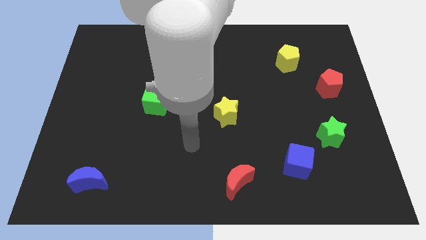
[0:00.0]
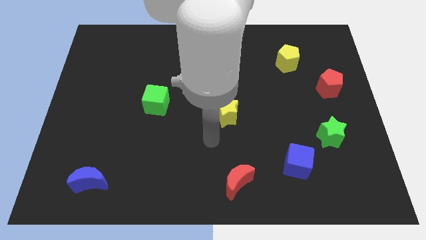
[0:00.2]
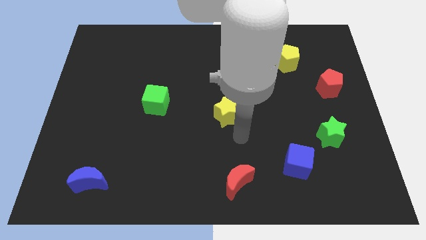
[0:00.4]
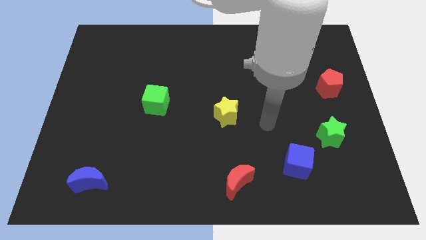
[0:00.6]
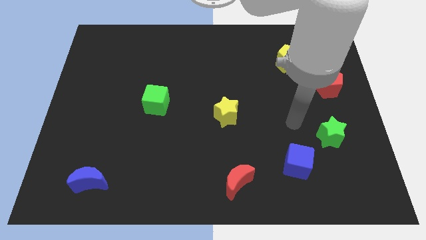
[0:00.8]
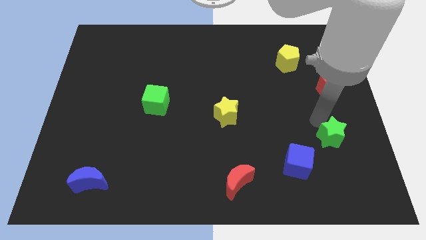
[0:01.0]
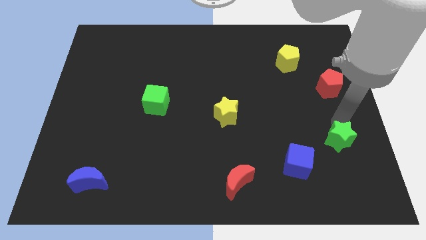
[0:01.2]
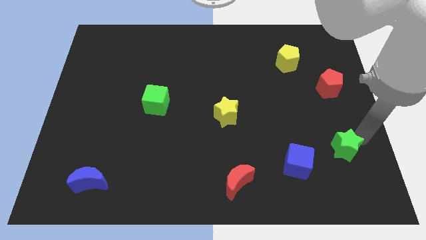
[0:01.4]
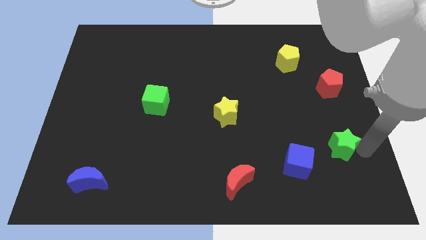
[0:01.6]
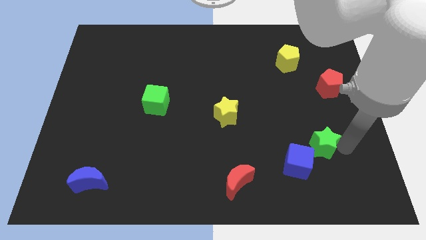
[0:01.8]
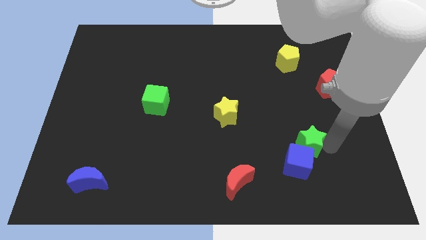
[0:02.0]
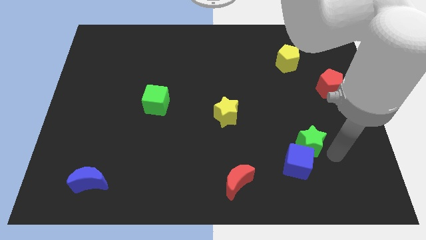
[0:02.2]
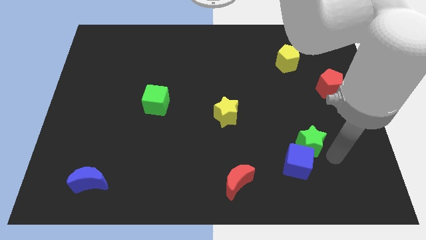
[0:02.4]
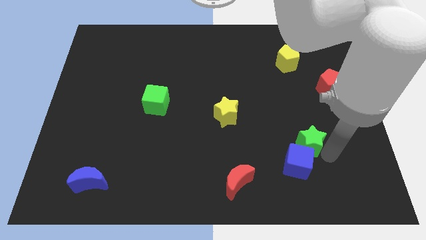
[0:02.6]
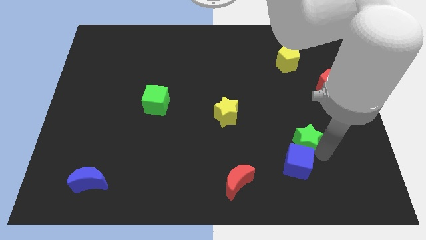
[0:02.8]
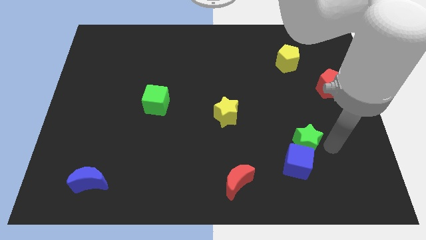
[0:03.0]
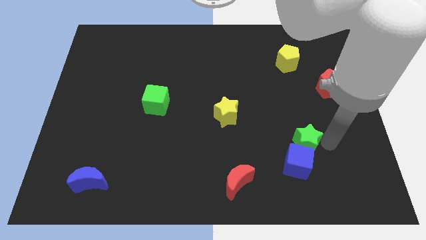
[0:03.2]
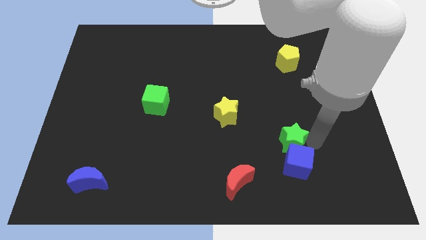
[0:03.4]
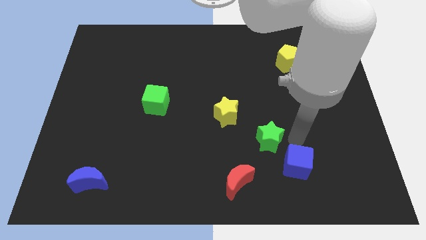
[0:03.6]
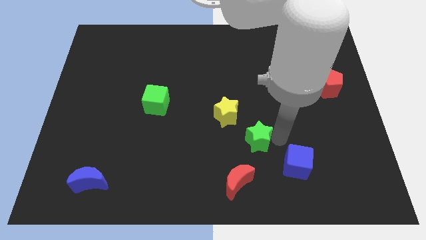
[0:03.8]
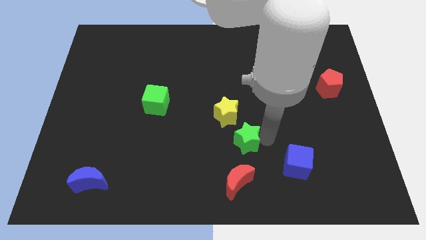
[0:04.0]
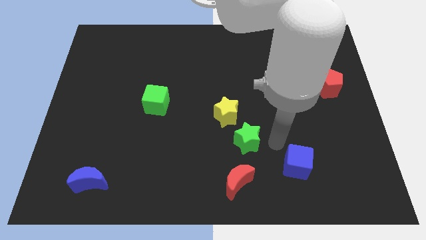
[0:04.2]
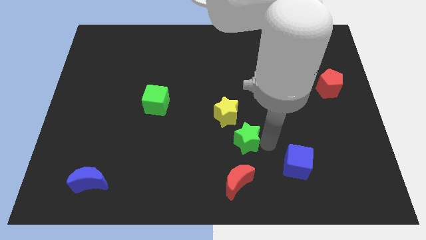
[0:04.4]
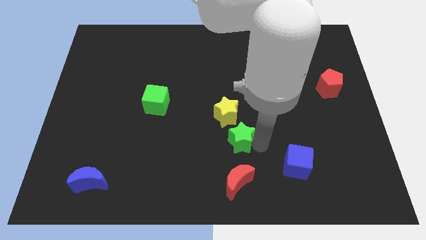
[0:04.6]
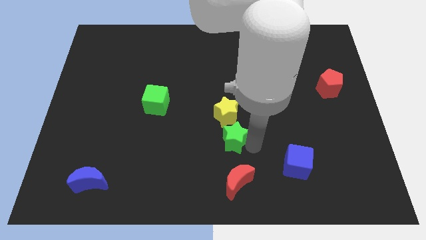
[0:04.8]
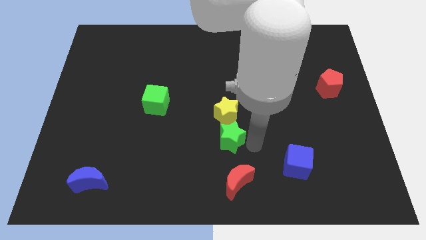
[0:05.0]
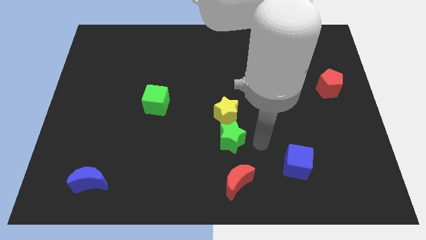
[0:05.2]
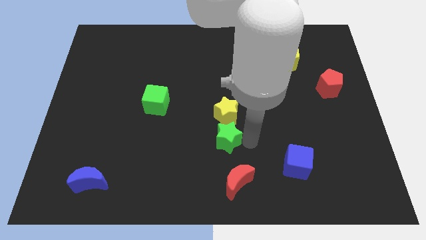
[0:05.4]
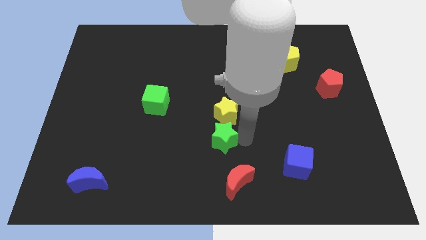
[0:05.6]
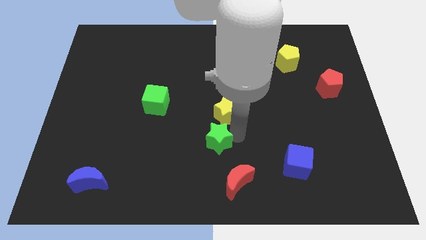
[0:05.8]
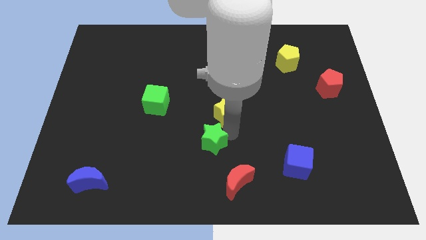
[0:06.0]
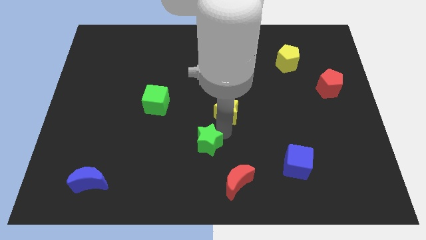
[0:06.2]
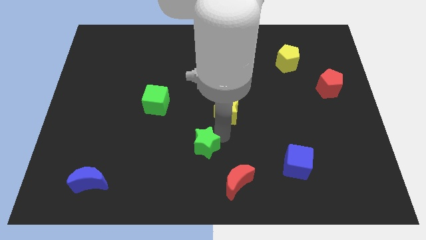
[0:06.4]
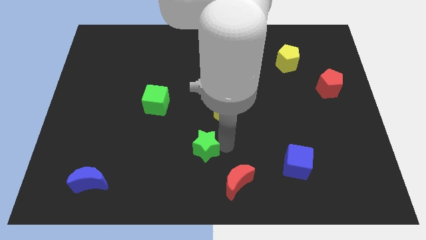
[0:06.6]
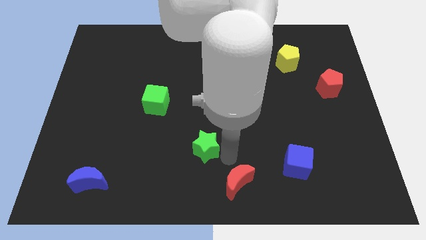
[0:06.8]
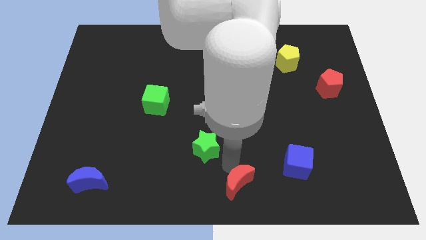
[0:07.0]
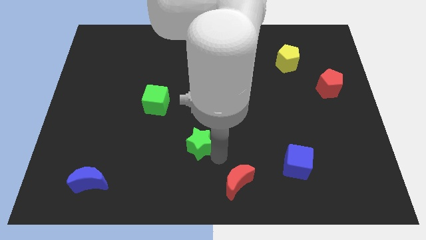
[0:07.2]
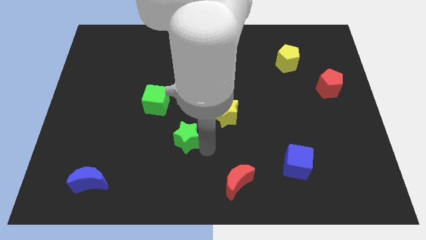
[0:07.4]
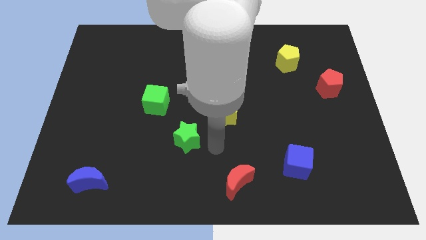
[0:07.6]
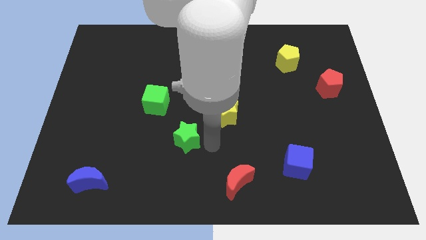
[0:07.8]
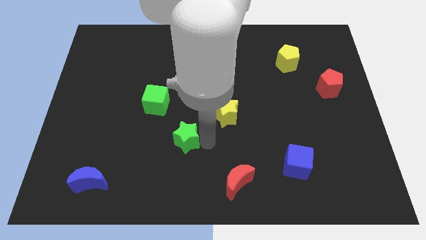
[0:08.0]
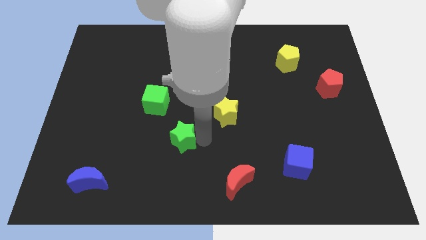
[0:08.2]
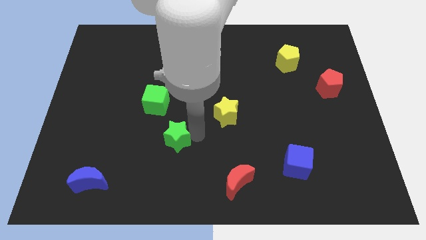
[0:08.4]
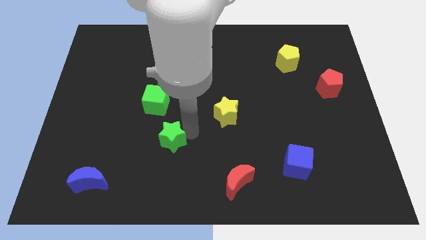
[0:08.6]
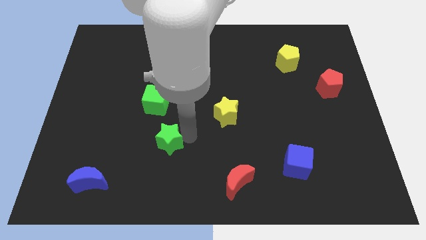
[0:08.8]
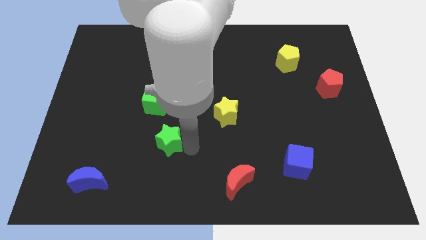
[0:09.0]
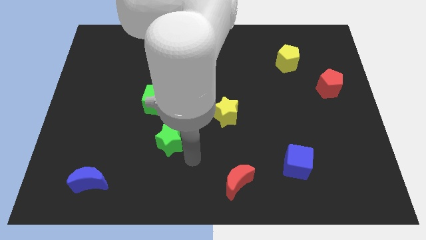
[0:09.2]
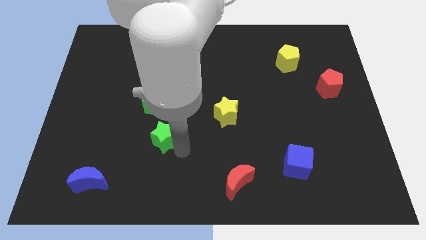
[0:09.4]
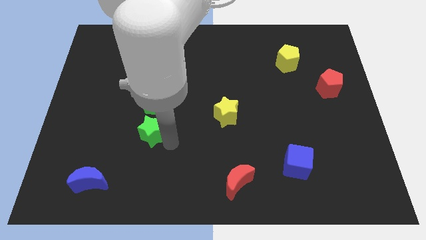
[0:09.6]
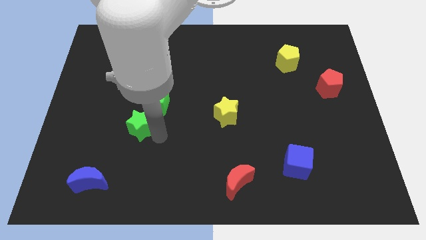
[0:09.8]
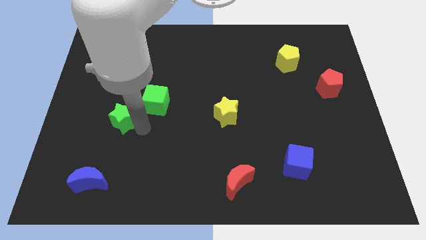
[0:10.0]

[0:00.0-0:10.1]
push the green star left of the green cube

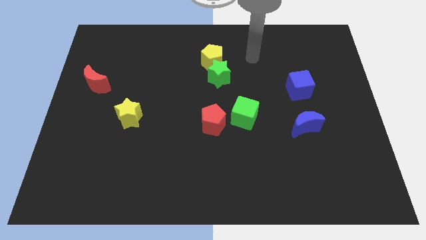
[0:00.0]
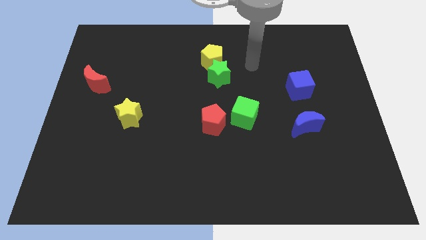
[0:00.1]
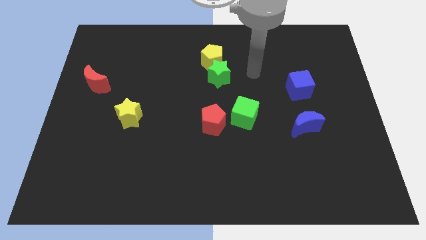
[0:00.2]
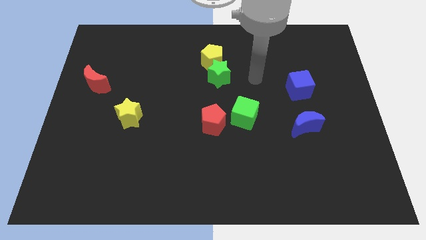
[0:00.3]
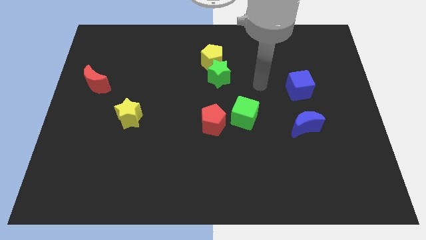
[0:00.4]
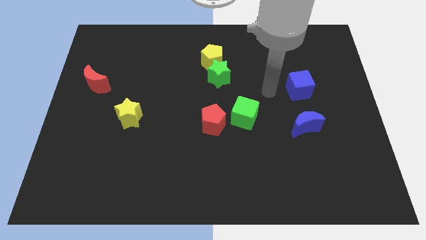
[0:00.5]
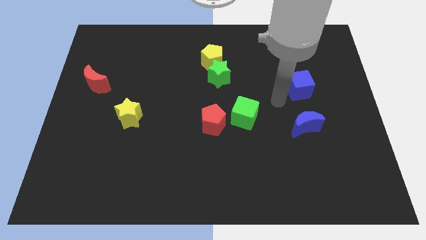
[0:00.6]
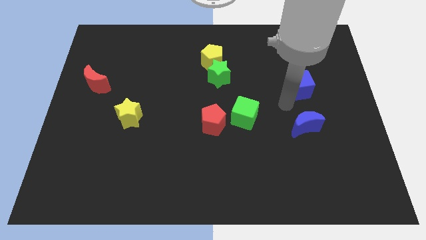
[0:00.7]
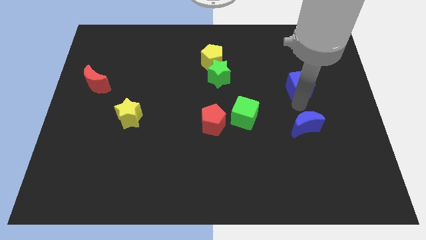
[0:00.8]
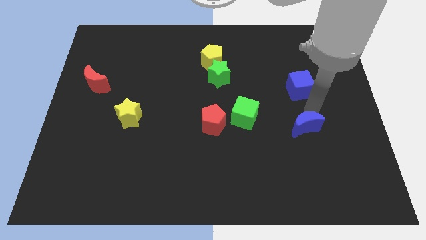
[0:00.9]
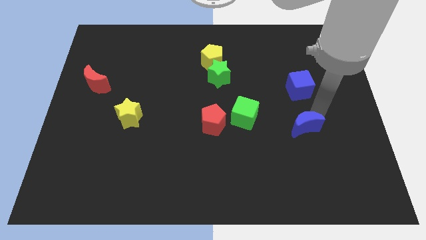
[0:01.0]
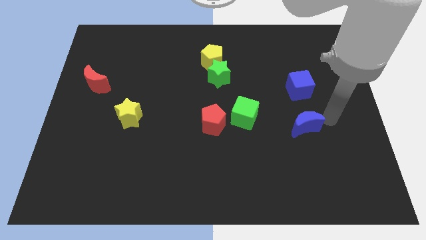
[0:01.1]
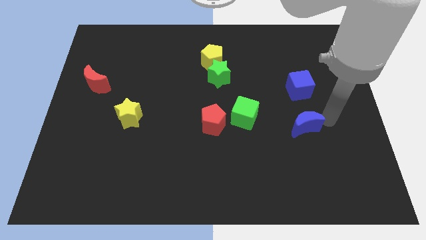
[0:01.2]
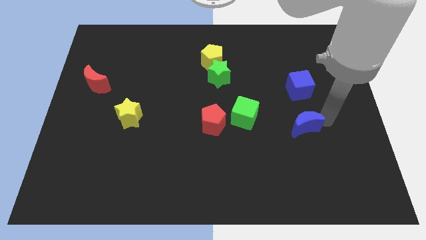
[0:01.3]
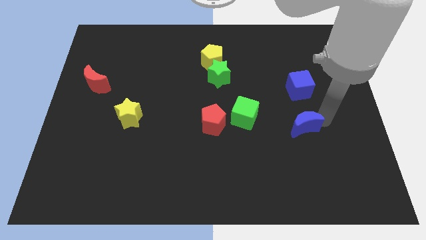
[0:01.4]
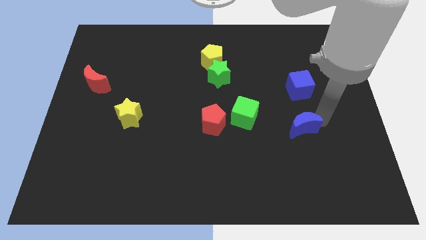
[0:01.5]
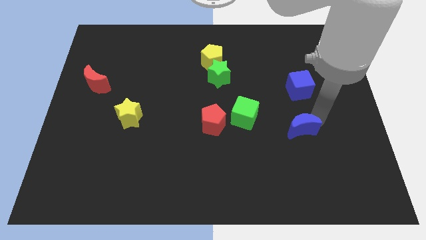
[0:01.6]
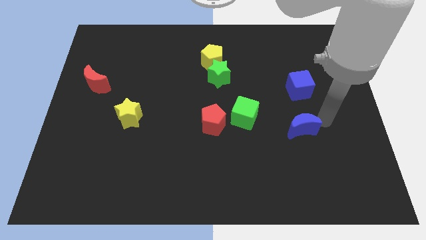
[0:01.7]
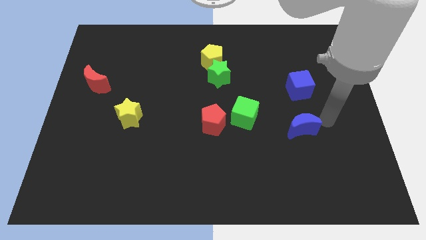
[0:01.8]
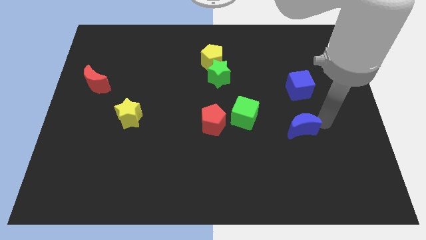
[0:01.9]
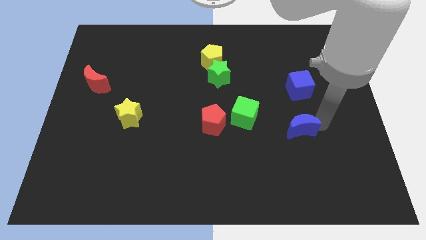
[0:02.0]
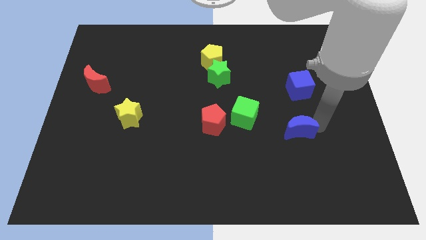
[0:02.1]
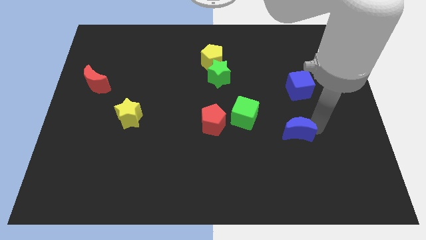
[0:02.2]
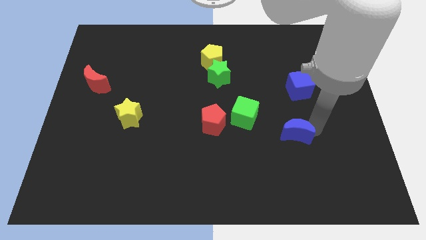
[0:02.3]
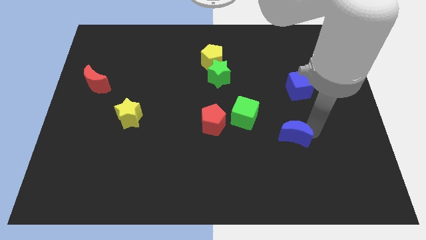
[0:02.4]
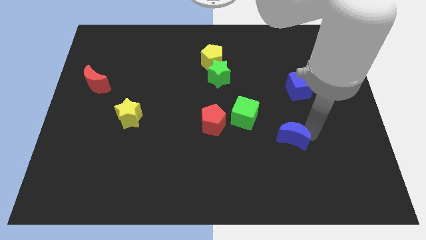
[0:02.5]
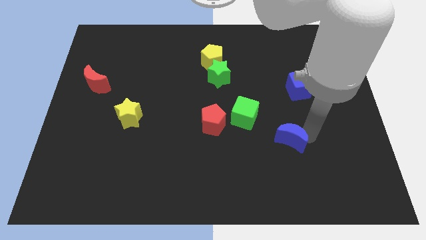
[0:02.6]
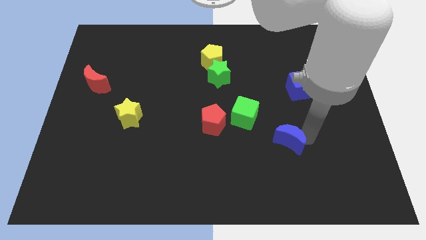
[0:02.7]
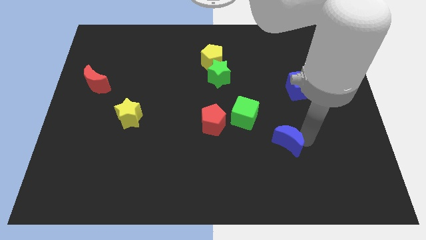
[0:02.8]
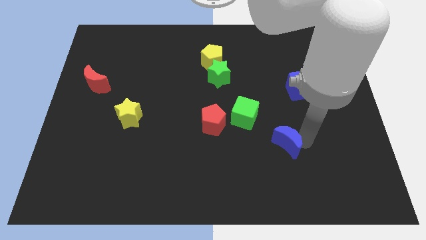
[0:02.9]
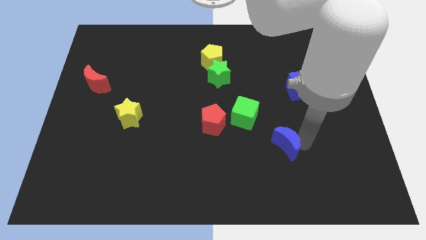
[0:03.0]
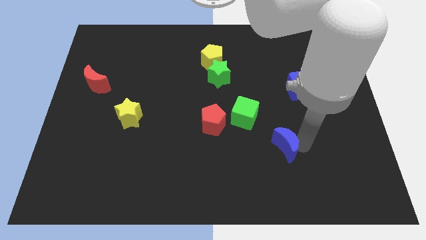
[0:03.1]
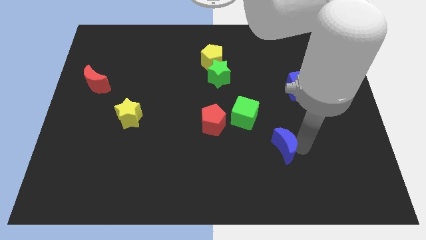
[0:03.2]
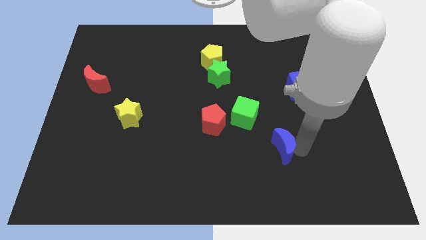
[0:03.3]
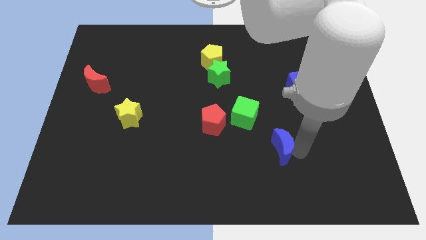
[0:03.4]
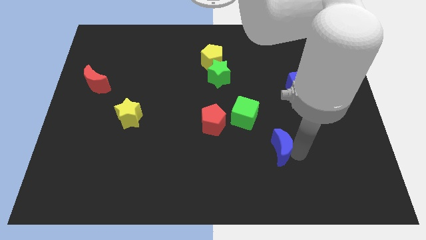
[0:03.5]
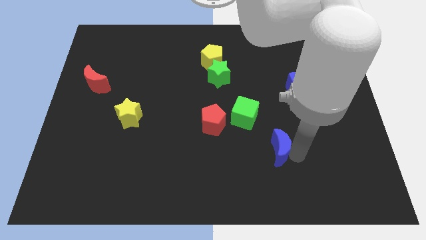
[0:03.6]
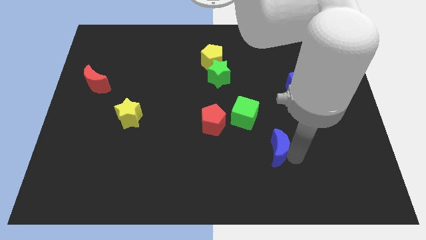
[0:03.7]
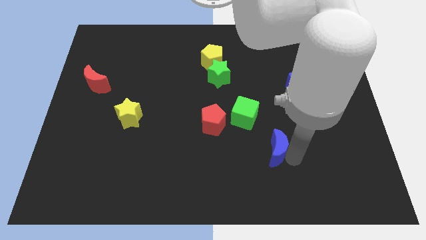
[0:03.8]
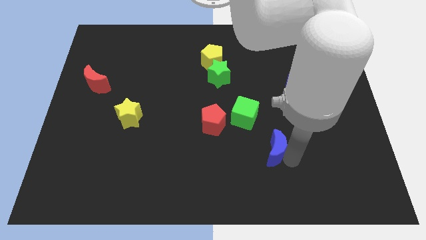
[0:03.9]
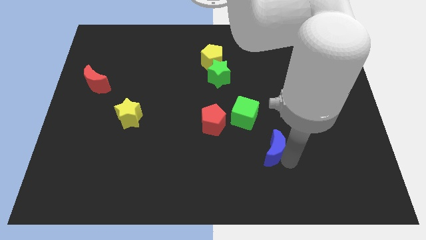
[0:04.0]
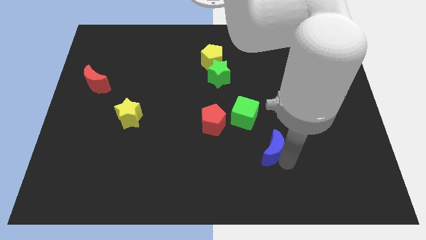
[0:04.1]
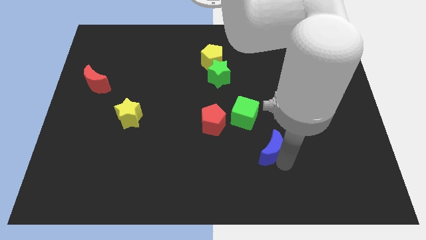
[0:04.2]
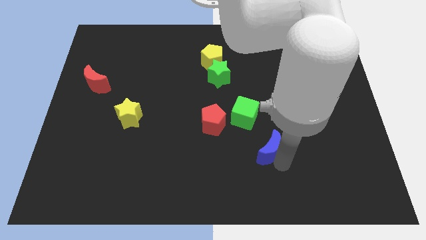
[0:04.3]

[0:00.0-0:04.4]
slide the blue moon to the bottom side of the green cube
